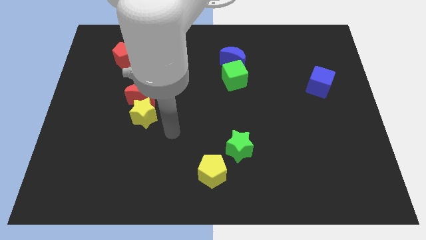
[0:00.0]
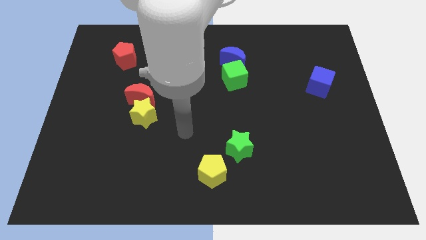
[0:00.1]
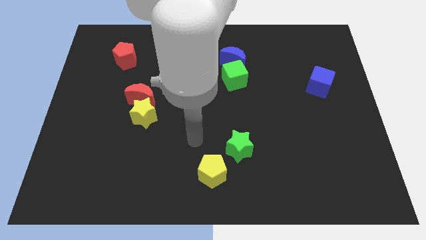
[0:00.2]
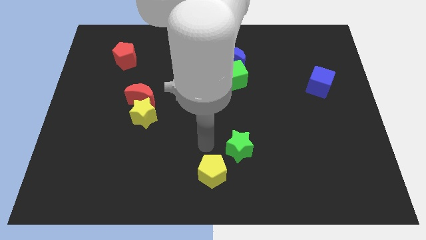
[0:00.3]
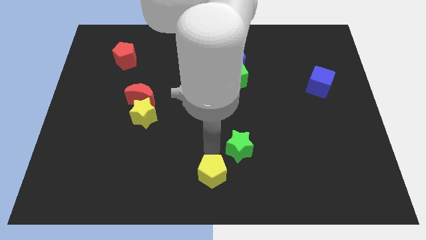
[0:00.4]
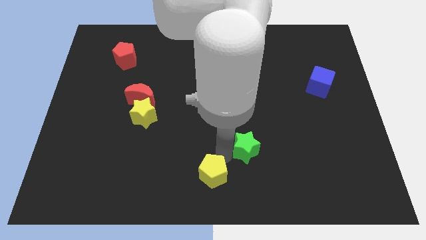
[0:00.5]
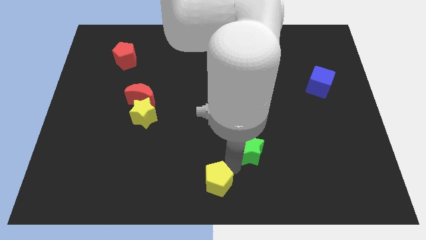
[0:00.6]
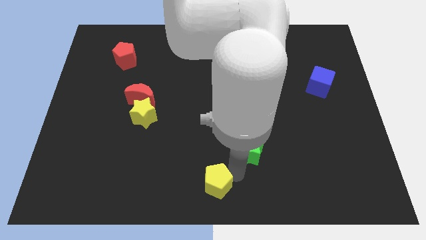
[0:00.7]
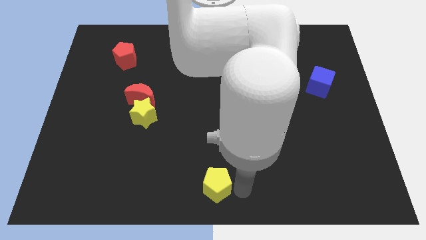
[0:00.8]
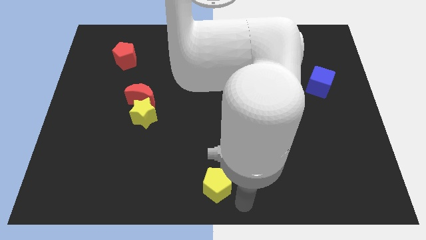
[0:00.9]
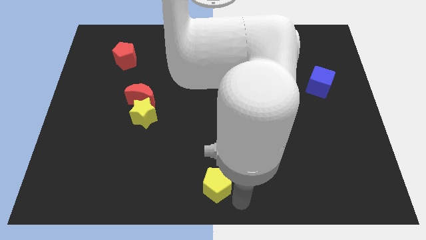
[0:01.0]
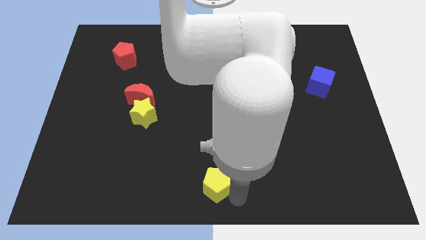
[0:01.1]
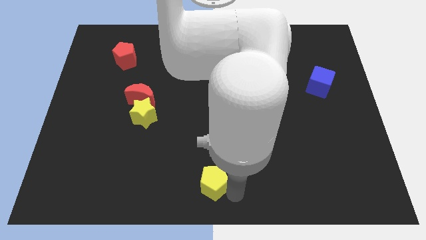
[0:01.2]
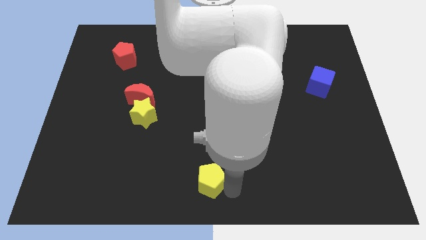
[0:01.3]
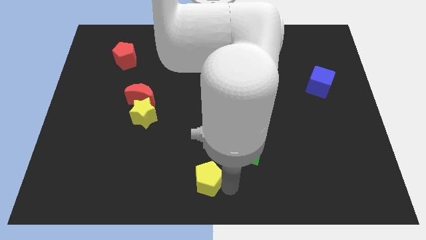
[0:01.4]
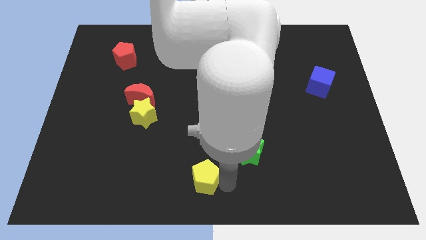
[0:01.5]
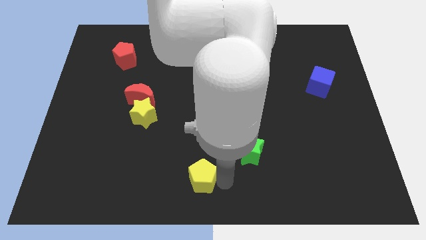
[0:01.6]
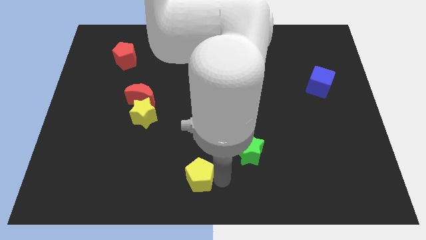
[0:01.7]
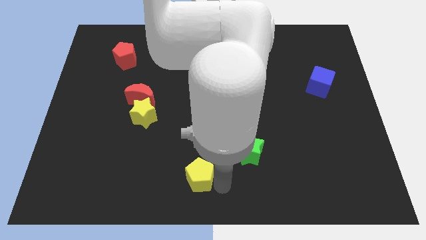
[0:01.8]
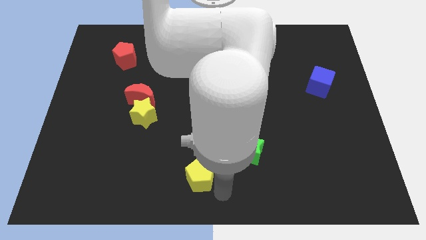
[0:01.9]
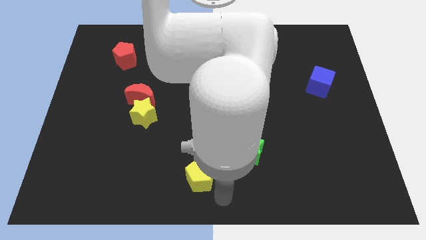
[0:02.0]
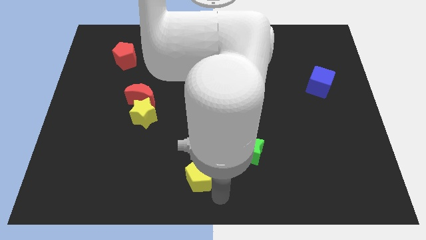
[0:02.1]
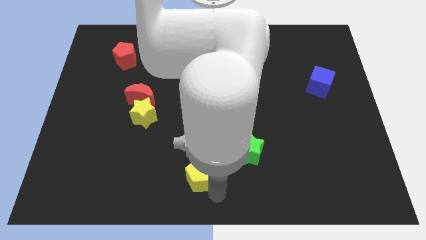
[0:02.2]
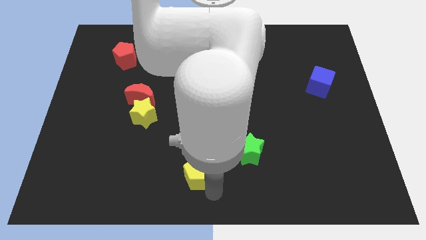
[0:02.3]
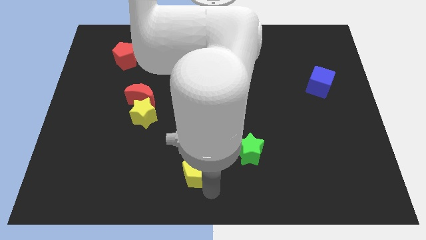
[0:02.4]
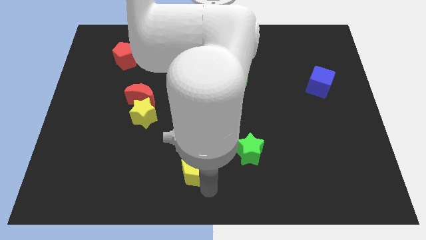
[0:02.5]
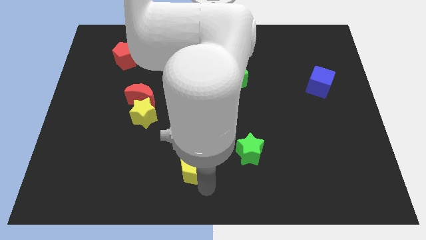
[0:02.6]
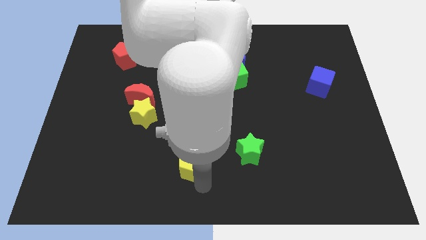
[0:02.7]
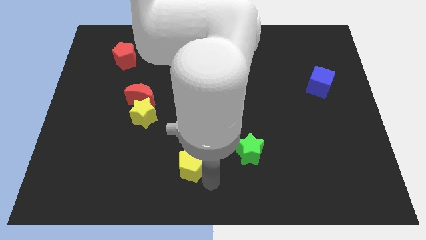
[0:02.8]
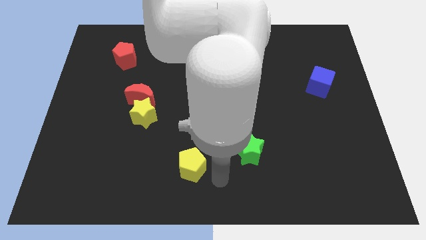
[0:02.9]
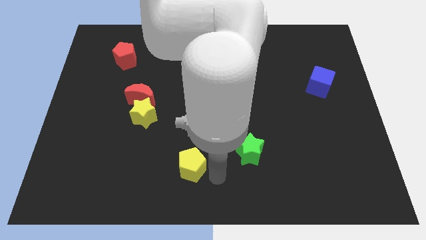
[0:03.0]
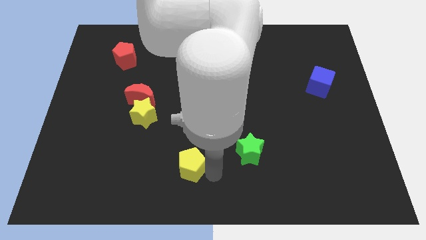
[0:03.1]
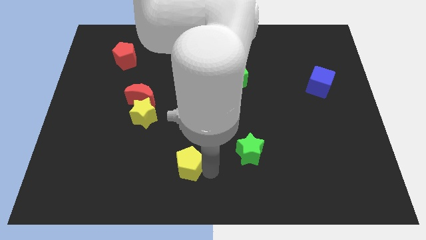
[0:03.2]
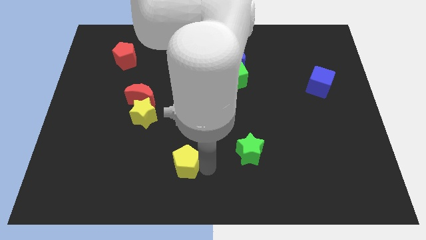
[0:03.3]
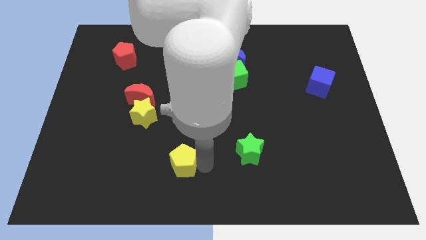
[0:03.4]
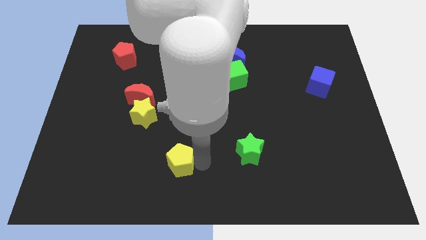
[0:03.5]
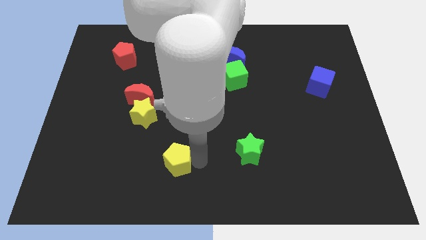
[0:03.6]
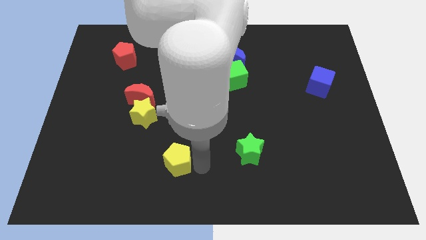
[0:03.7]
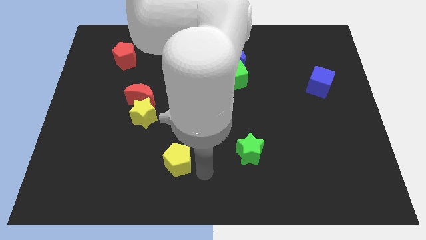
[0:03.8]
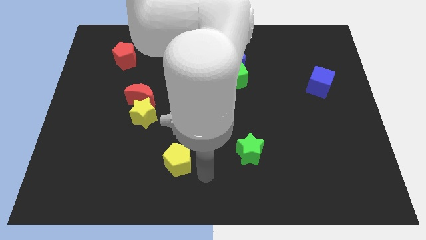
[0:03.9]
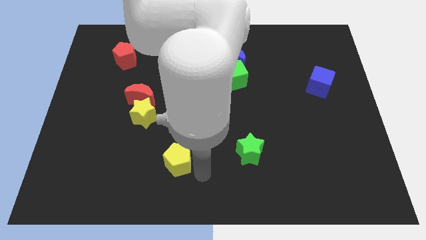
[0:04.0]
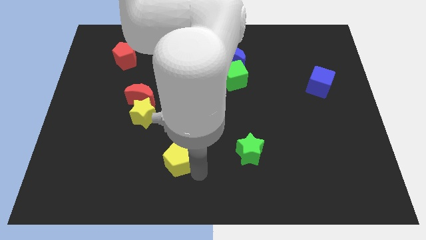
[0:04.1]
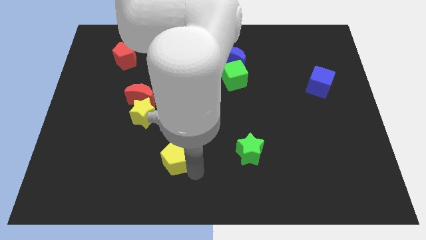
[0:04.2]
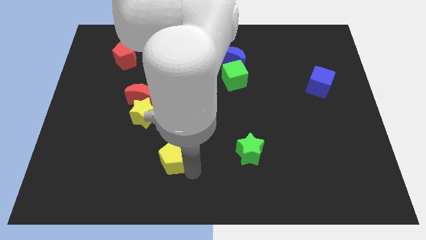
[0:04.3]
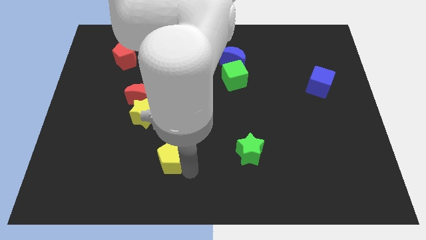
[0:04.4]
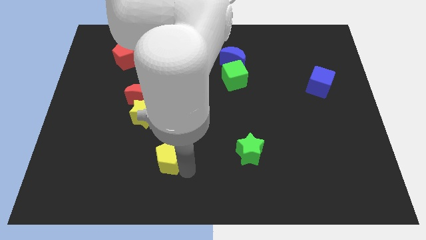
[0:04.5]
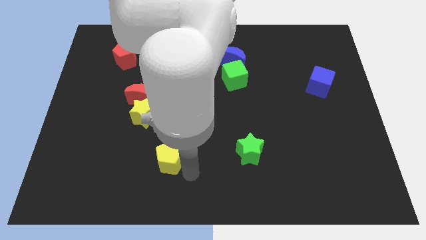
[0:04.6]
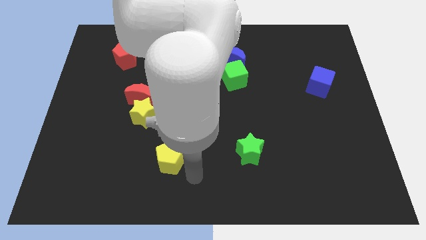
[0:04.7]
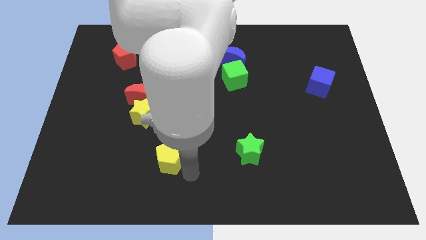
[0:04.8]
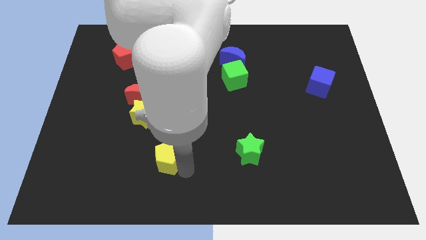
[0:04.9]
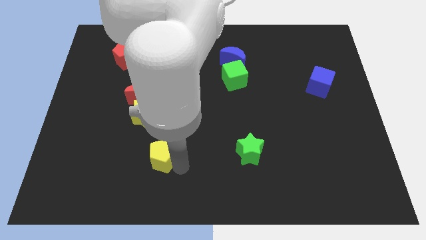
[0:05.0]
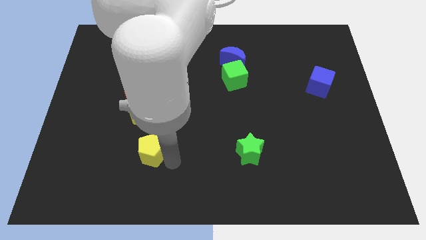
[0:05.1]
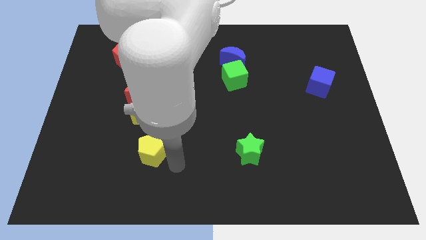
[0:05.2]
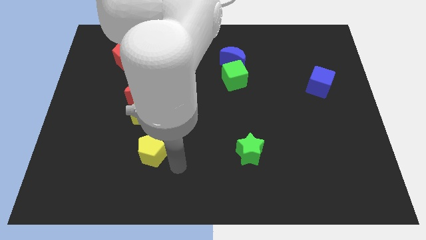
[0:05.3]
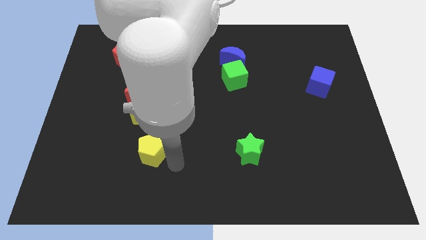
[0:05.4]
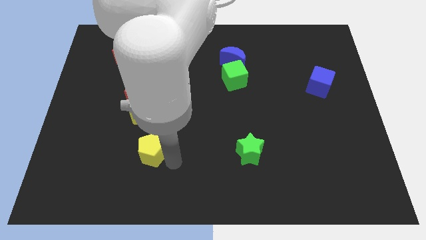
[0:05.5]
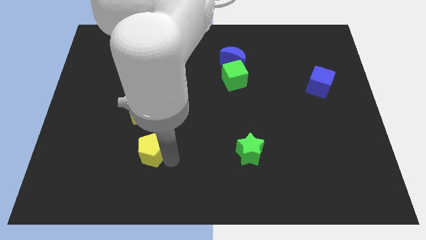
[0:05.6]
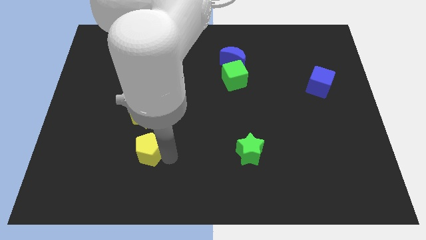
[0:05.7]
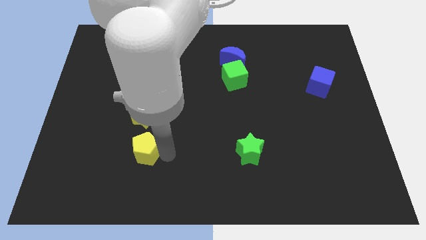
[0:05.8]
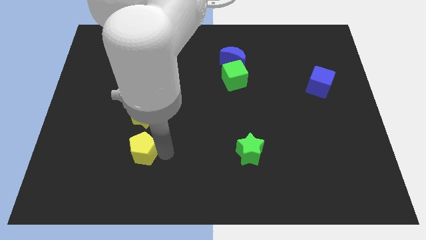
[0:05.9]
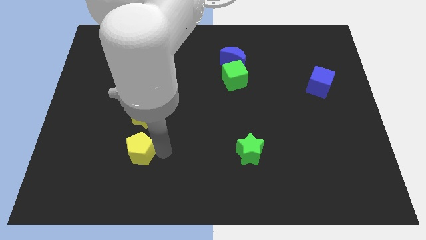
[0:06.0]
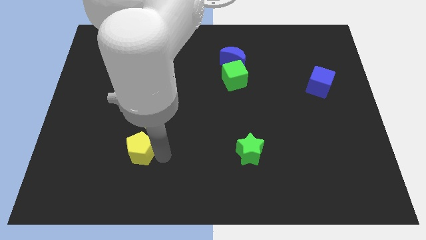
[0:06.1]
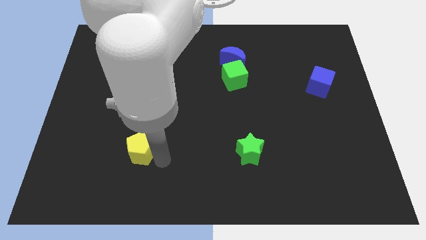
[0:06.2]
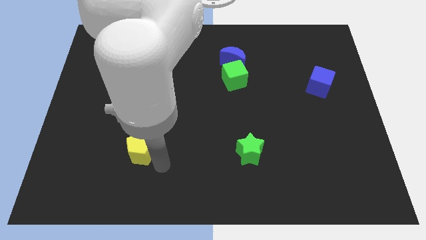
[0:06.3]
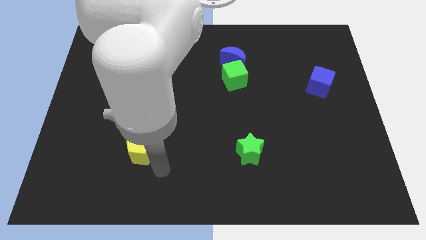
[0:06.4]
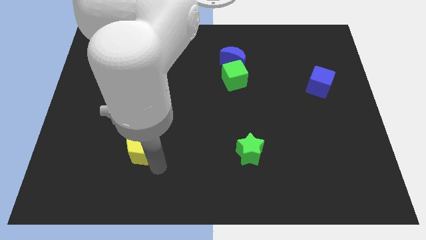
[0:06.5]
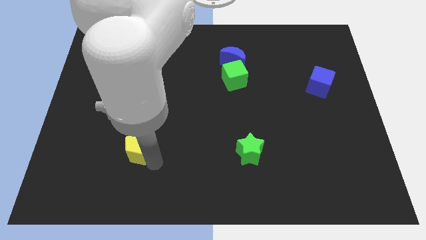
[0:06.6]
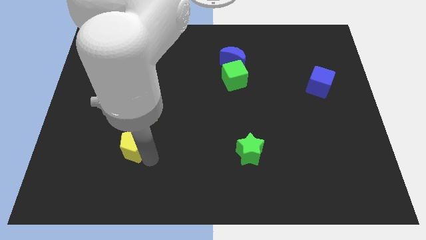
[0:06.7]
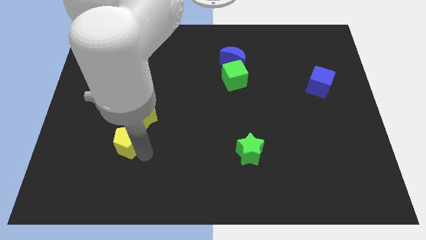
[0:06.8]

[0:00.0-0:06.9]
put the yellow pentagon to the bottom left of the yellow star
